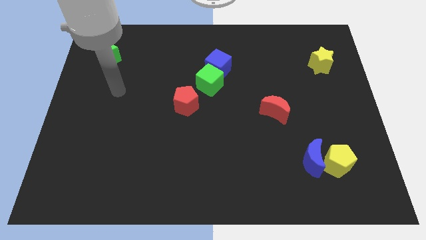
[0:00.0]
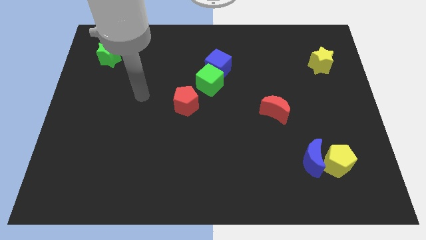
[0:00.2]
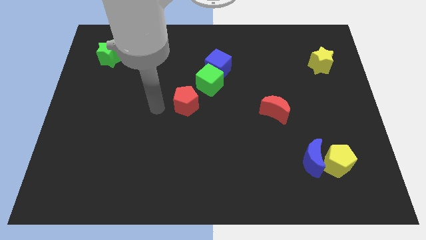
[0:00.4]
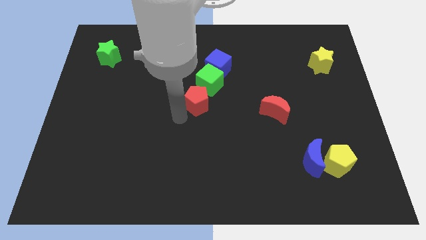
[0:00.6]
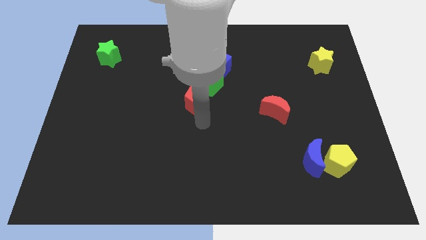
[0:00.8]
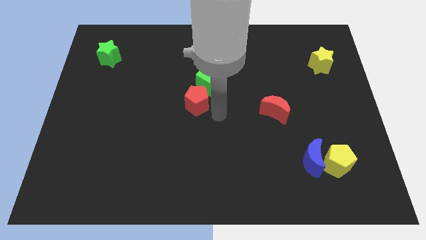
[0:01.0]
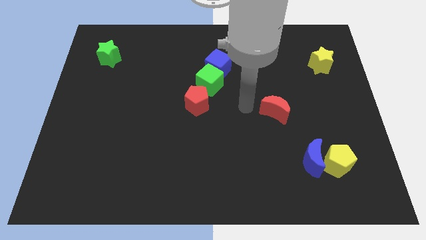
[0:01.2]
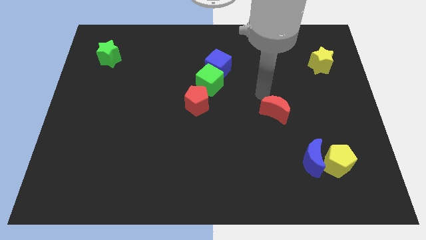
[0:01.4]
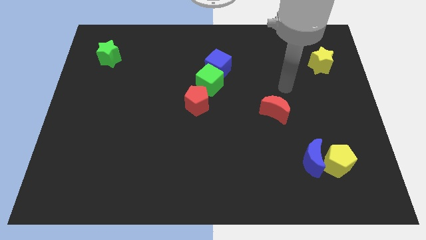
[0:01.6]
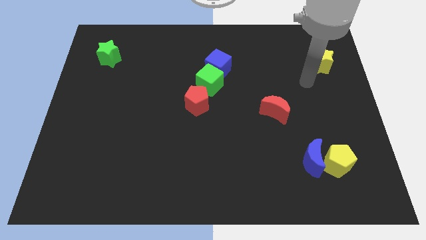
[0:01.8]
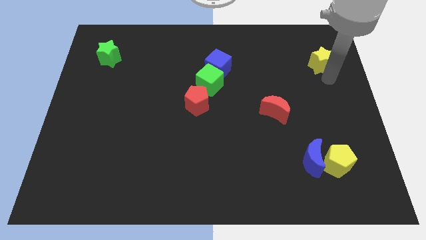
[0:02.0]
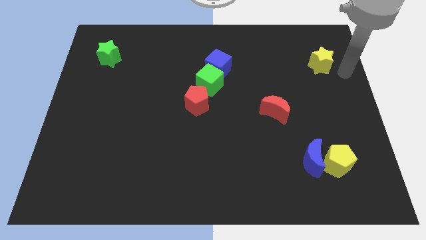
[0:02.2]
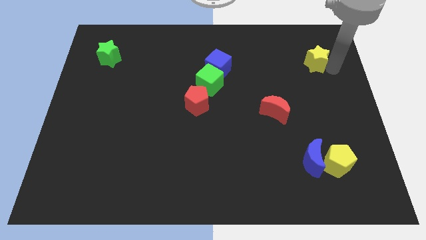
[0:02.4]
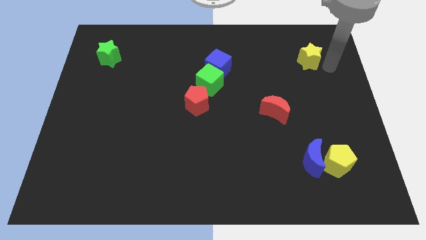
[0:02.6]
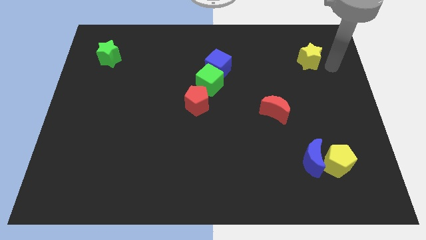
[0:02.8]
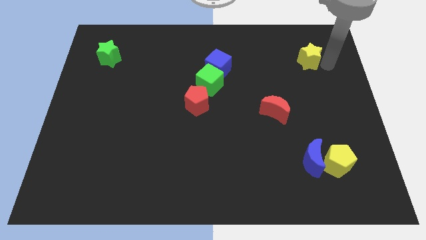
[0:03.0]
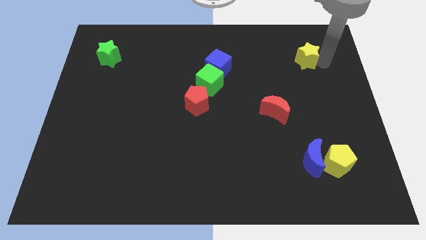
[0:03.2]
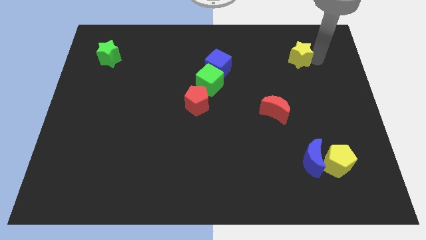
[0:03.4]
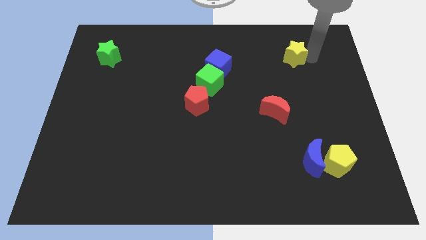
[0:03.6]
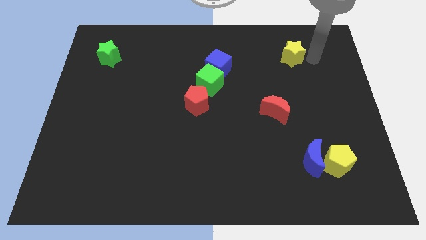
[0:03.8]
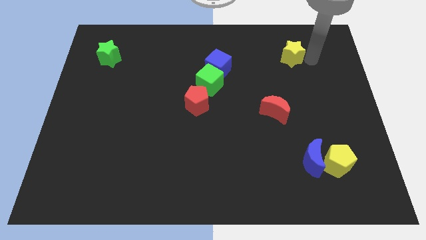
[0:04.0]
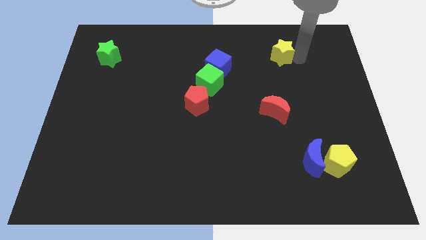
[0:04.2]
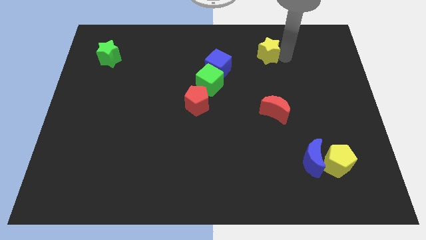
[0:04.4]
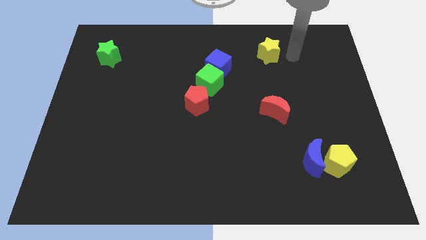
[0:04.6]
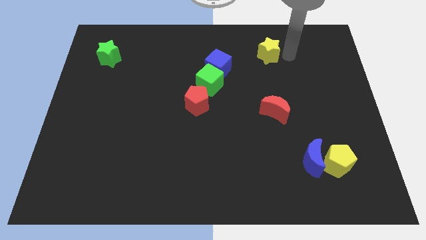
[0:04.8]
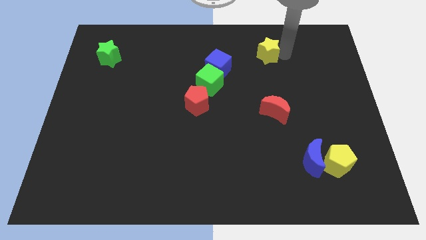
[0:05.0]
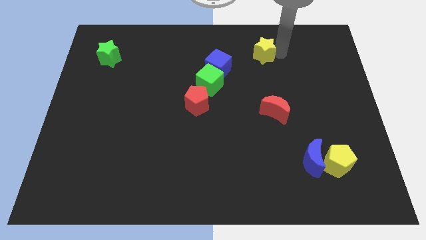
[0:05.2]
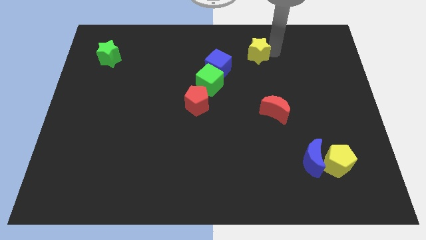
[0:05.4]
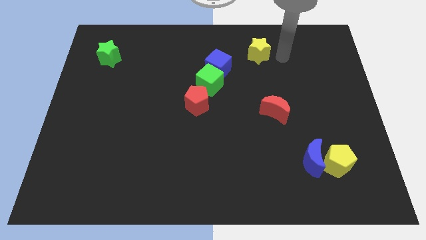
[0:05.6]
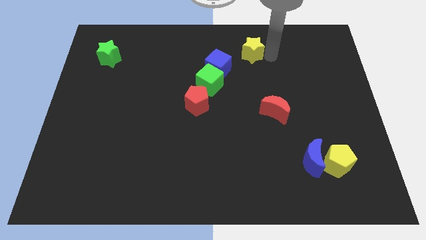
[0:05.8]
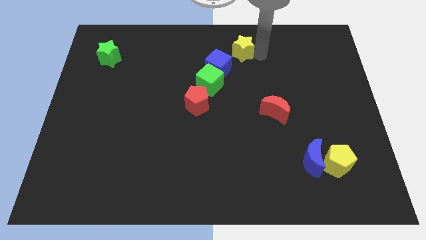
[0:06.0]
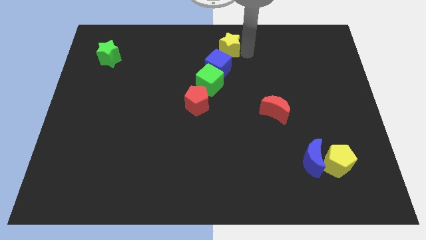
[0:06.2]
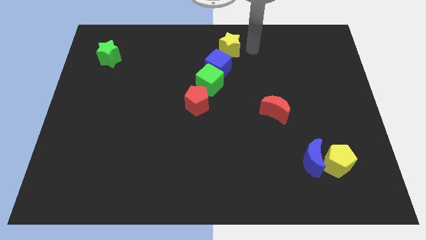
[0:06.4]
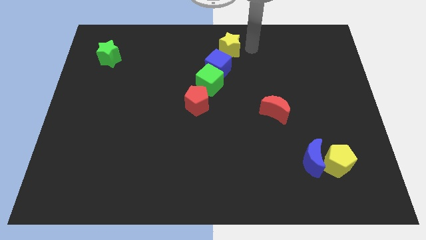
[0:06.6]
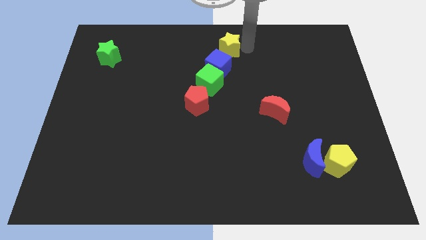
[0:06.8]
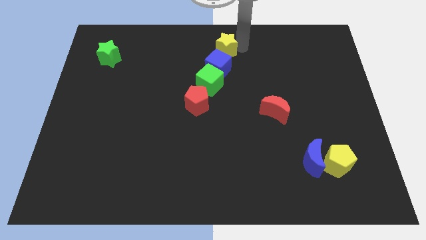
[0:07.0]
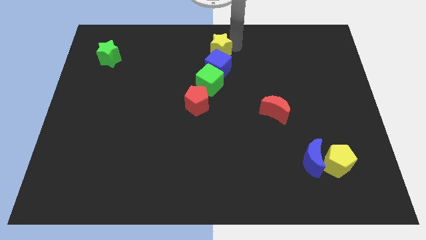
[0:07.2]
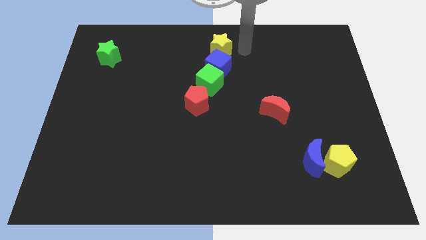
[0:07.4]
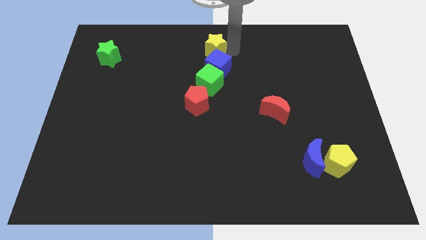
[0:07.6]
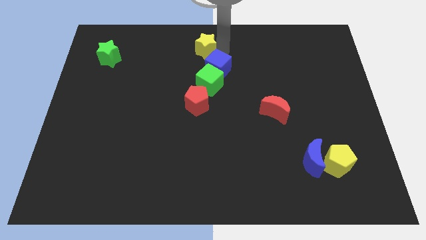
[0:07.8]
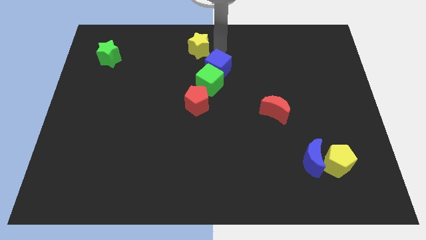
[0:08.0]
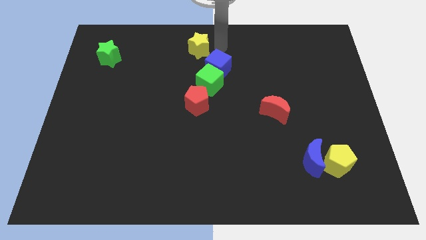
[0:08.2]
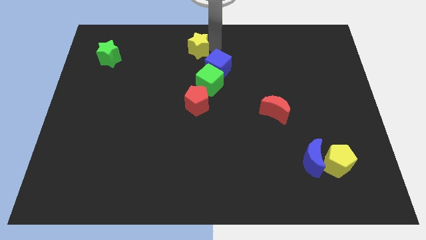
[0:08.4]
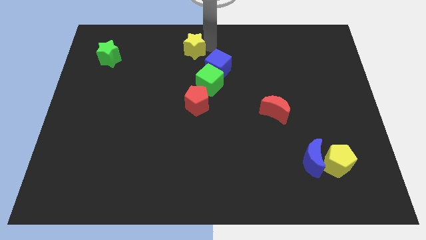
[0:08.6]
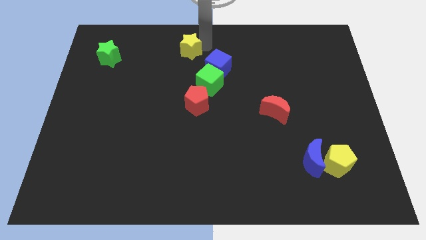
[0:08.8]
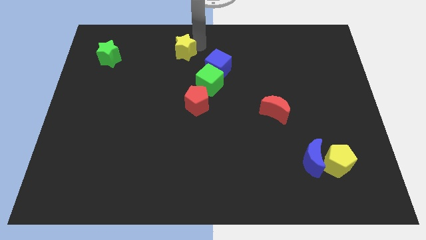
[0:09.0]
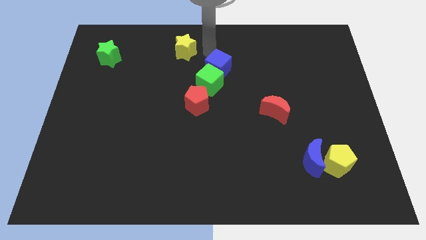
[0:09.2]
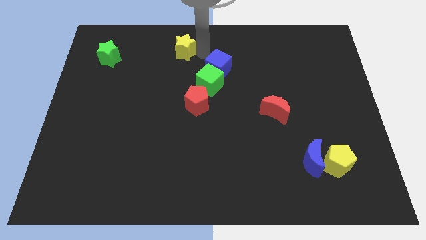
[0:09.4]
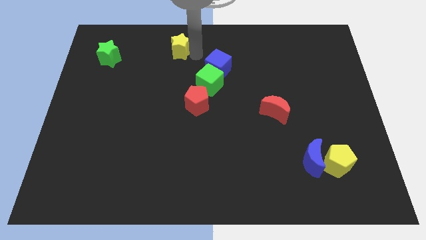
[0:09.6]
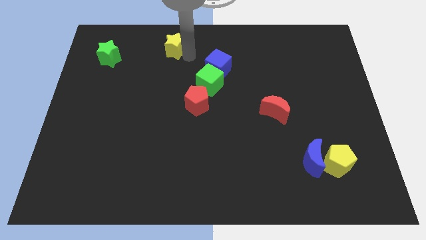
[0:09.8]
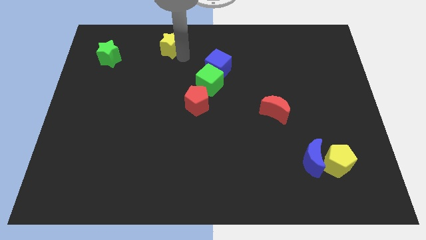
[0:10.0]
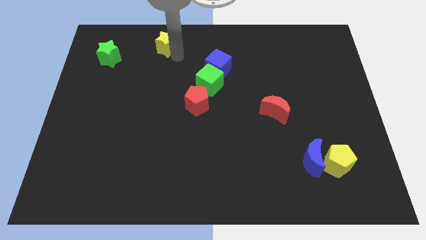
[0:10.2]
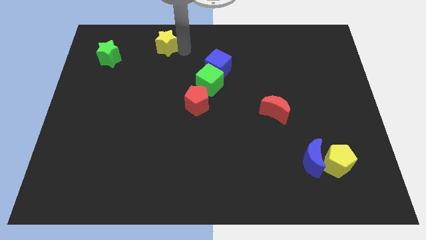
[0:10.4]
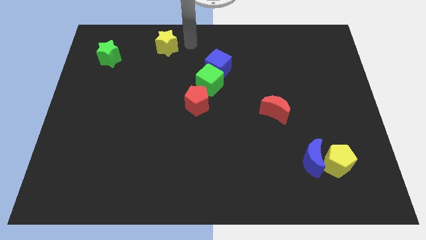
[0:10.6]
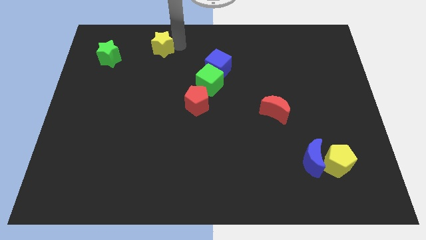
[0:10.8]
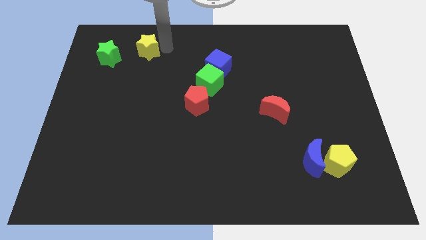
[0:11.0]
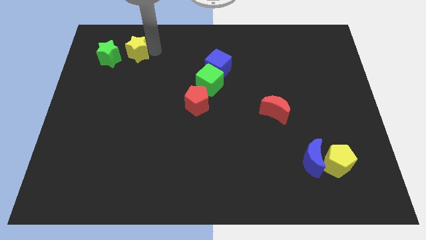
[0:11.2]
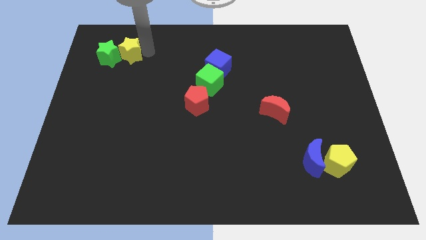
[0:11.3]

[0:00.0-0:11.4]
slide the yellow star next to the green star

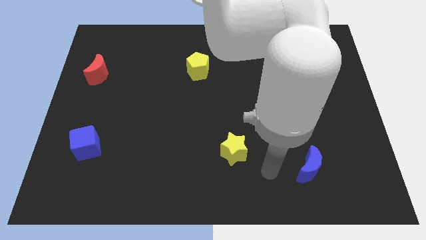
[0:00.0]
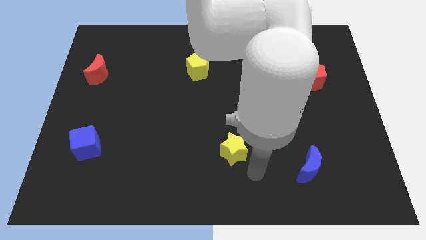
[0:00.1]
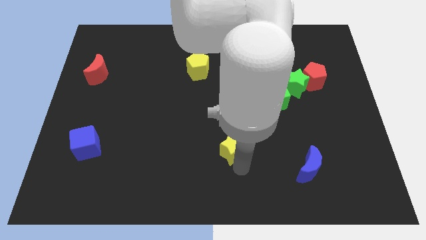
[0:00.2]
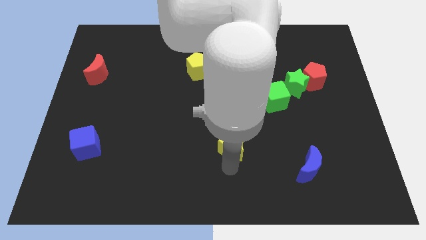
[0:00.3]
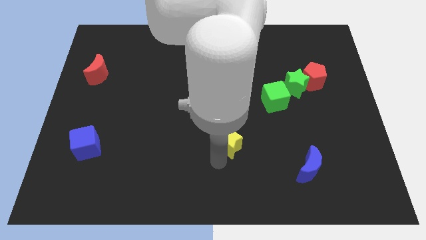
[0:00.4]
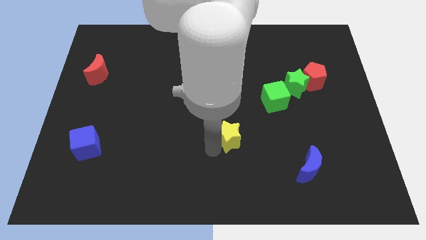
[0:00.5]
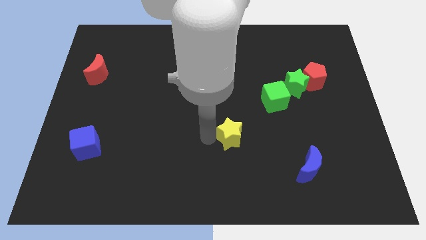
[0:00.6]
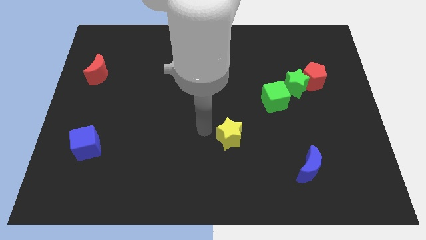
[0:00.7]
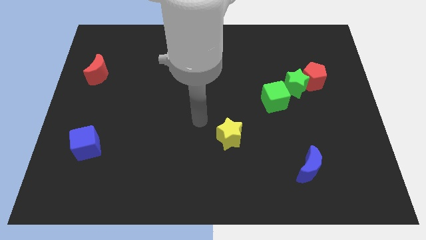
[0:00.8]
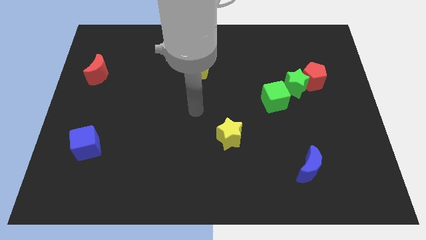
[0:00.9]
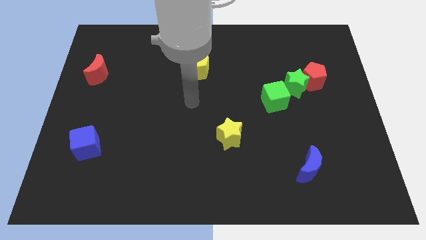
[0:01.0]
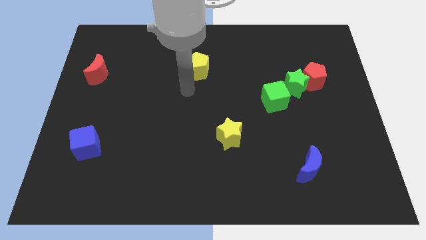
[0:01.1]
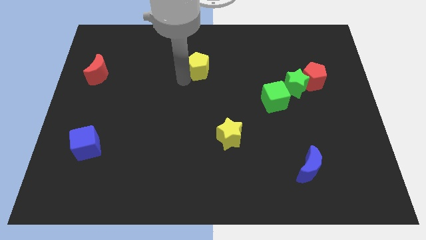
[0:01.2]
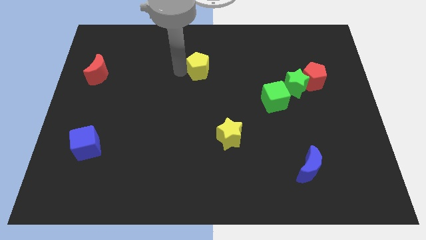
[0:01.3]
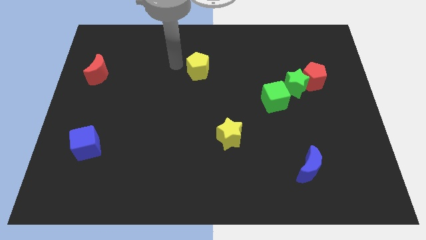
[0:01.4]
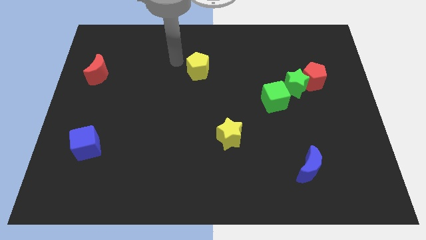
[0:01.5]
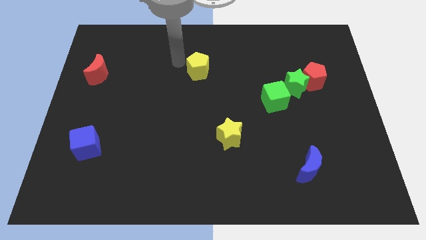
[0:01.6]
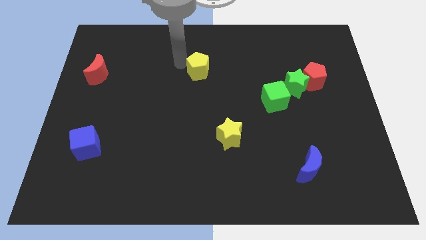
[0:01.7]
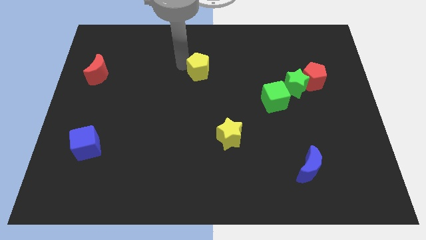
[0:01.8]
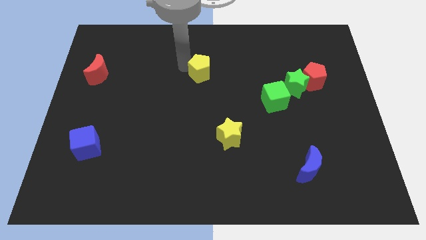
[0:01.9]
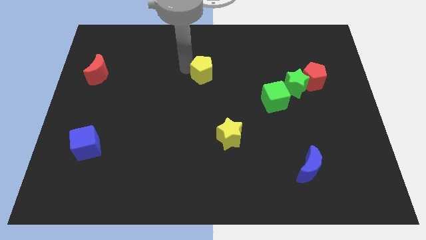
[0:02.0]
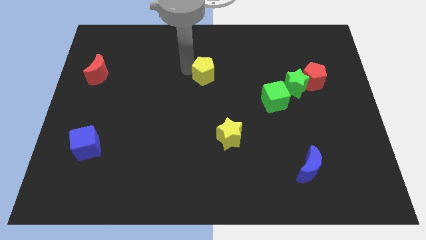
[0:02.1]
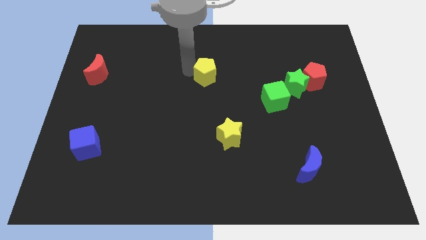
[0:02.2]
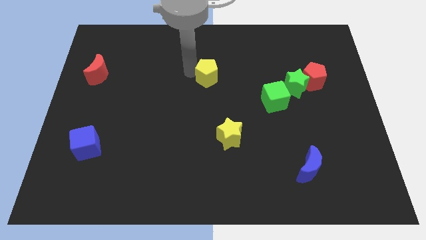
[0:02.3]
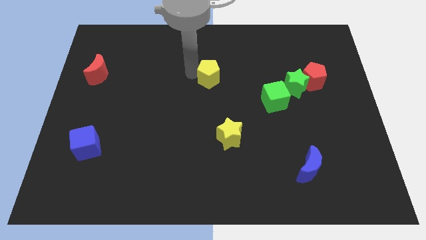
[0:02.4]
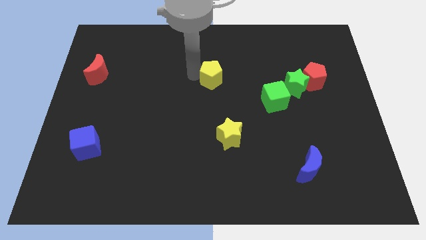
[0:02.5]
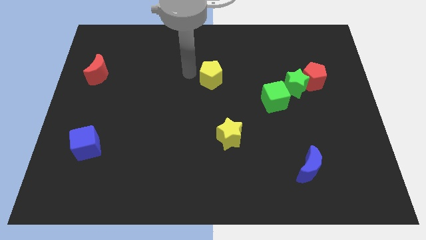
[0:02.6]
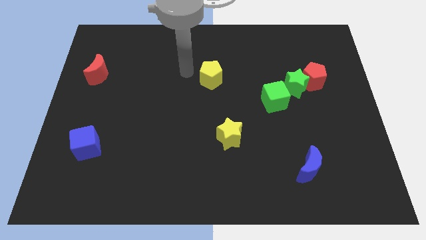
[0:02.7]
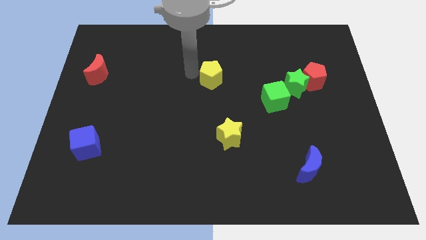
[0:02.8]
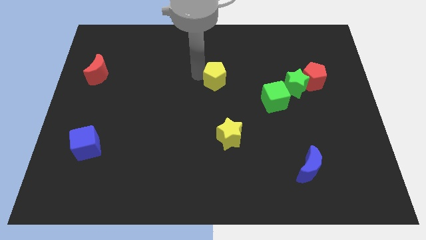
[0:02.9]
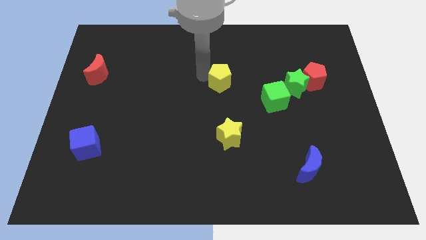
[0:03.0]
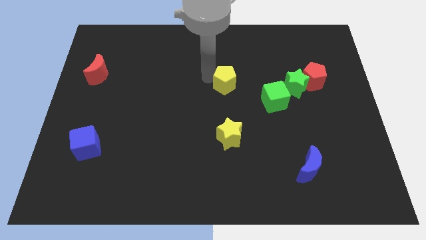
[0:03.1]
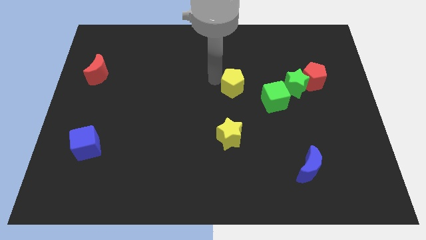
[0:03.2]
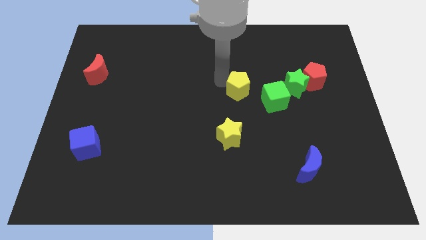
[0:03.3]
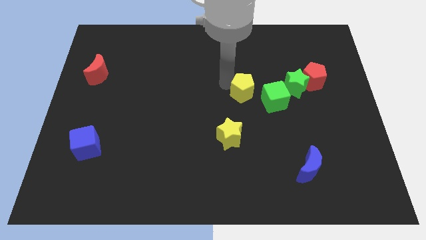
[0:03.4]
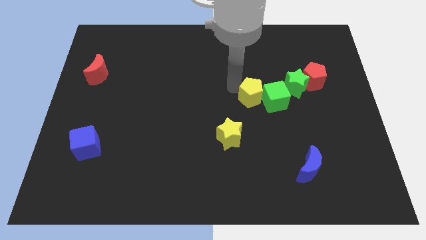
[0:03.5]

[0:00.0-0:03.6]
slide the yellow pentagon towards the green cube
